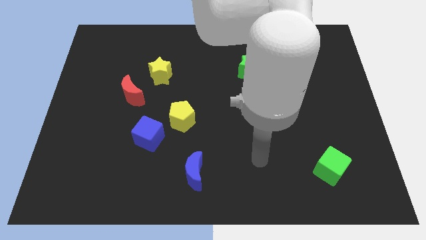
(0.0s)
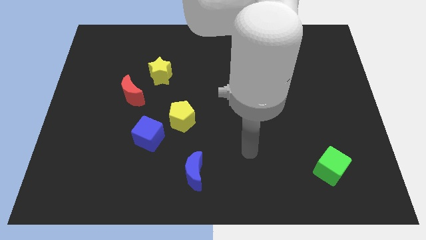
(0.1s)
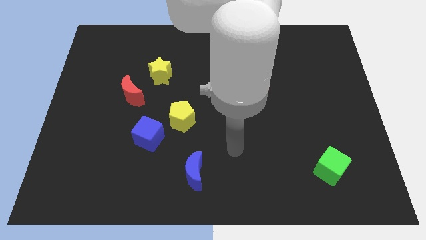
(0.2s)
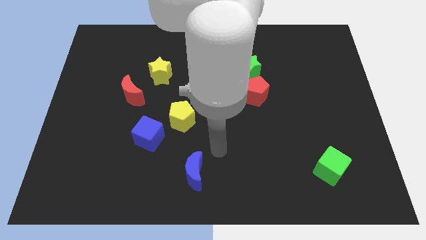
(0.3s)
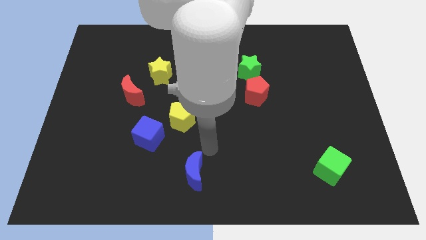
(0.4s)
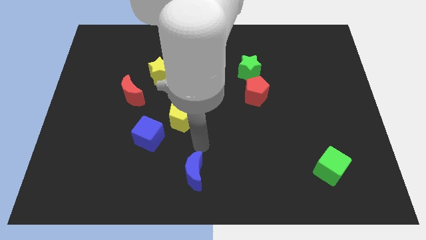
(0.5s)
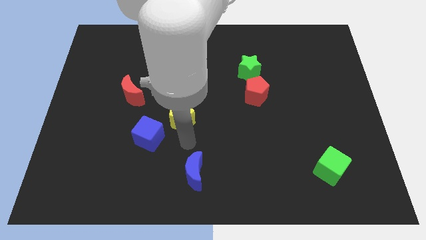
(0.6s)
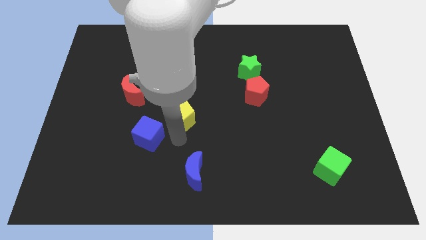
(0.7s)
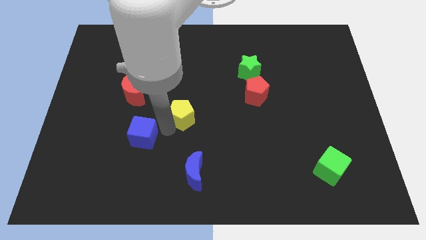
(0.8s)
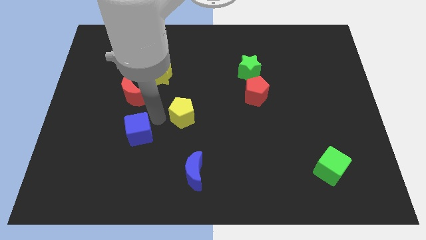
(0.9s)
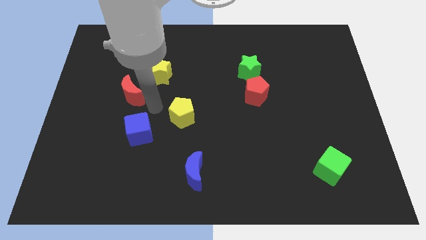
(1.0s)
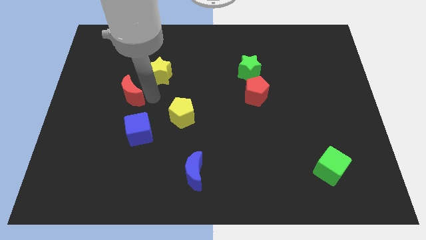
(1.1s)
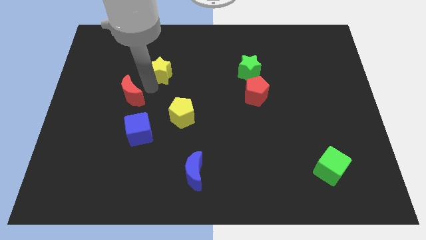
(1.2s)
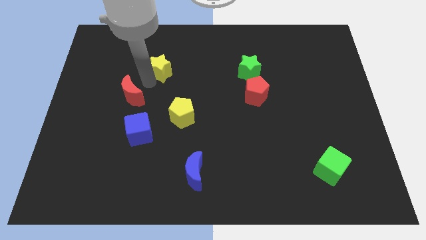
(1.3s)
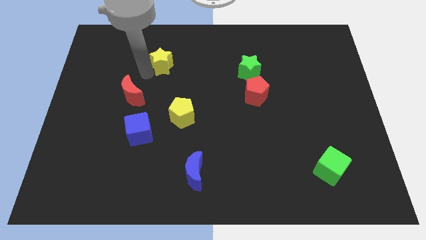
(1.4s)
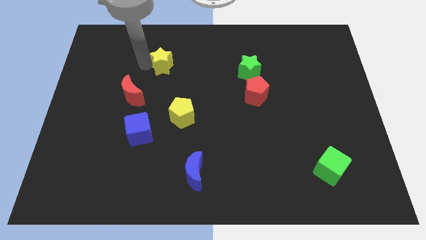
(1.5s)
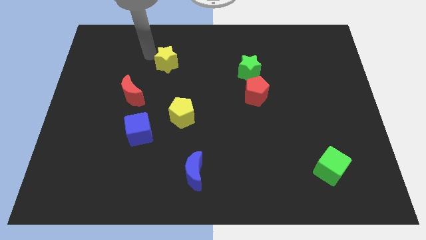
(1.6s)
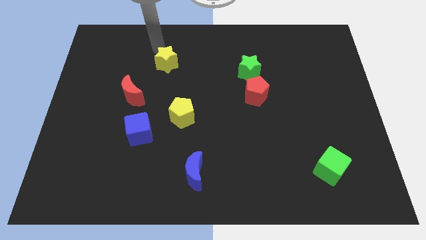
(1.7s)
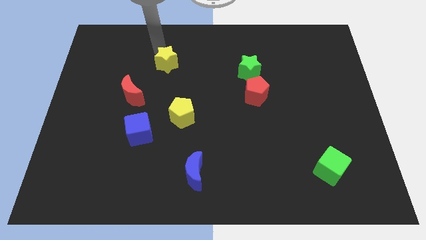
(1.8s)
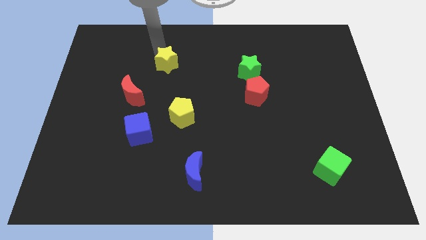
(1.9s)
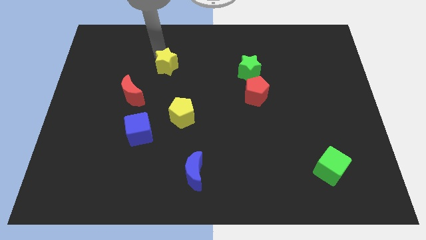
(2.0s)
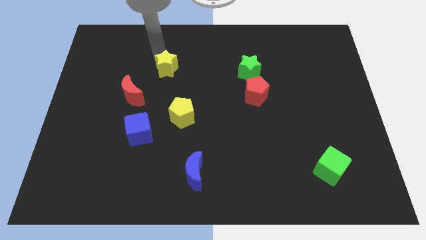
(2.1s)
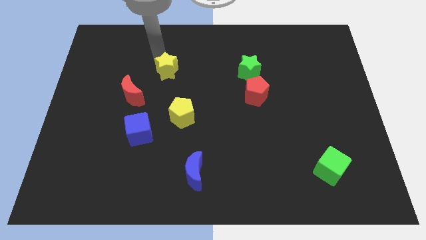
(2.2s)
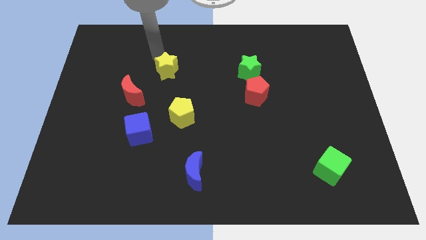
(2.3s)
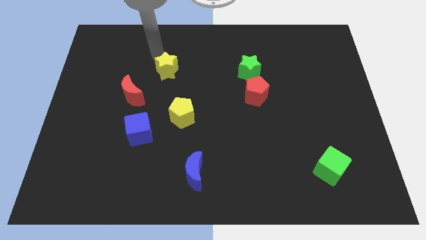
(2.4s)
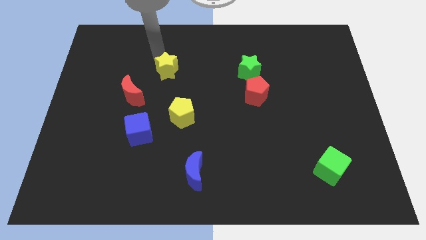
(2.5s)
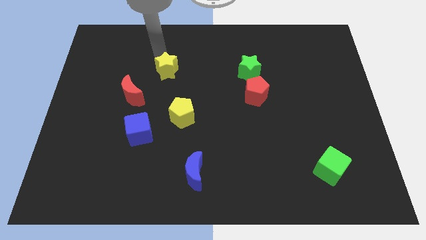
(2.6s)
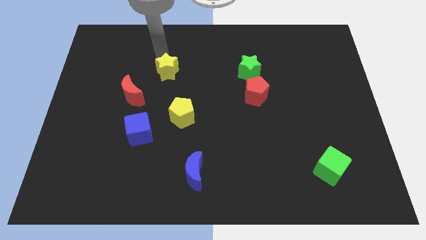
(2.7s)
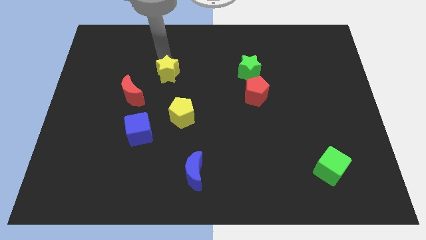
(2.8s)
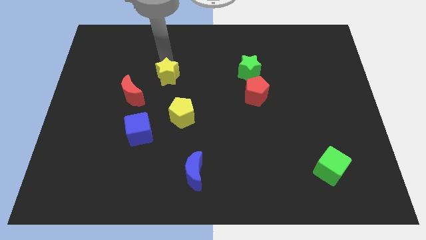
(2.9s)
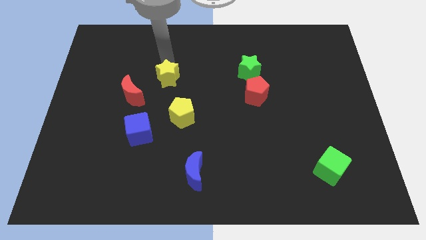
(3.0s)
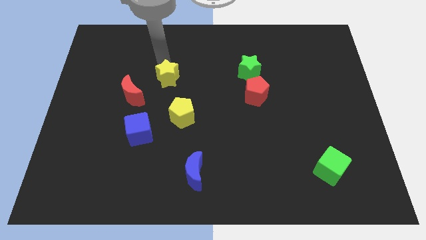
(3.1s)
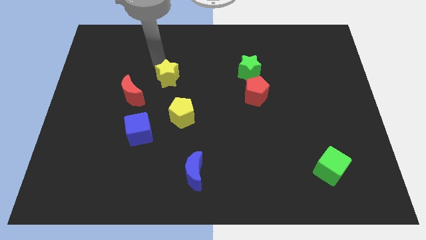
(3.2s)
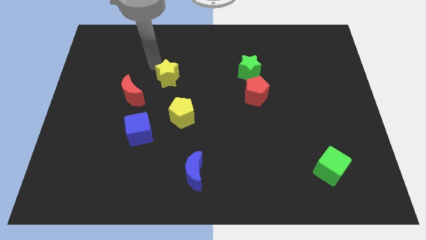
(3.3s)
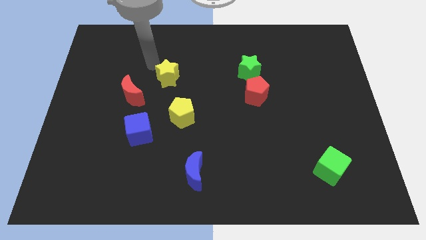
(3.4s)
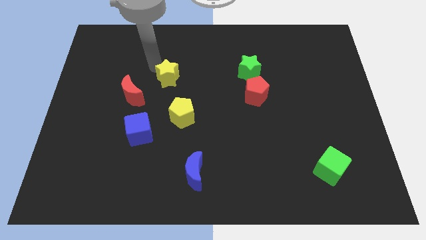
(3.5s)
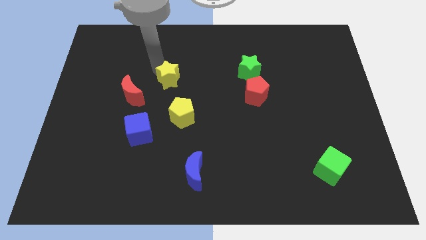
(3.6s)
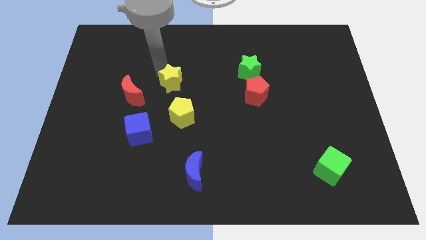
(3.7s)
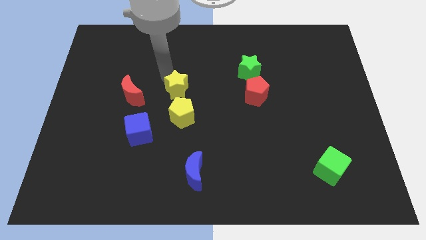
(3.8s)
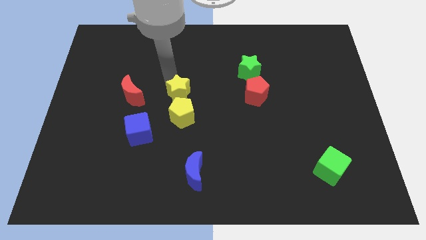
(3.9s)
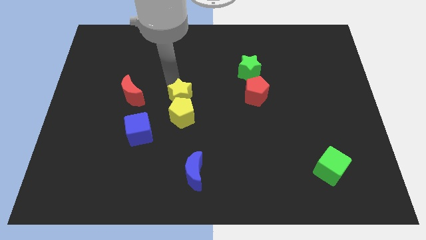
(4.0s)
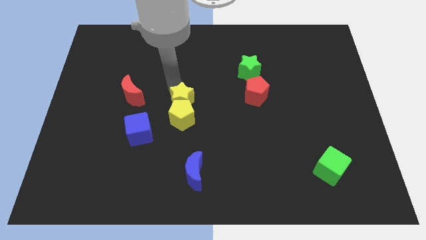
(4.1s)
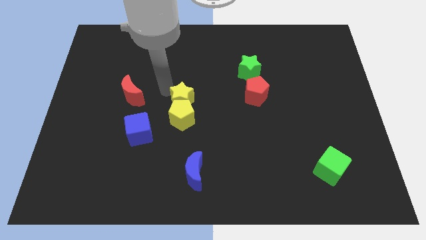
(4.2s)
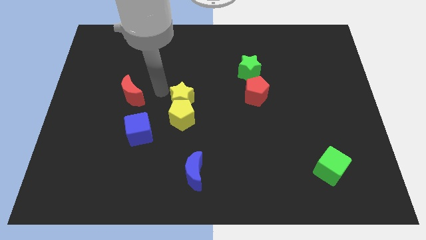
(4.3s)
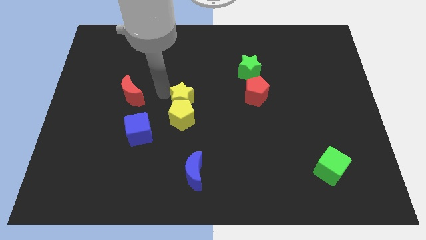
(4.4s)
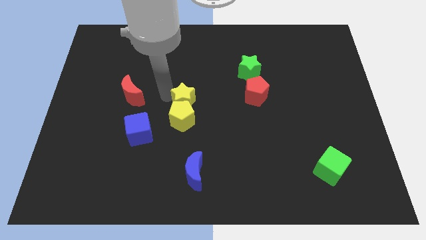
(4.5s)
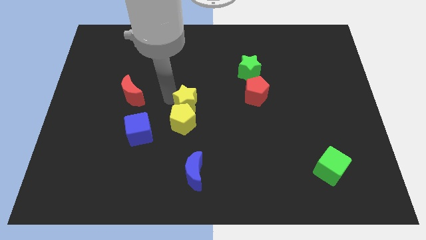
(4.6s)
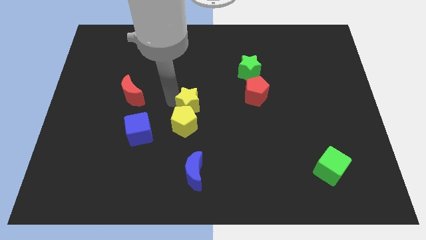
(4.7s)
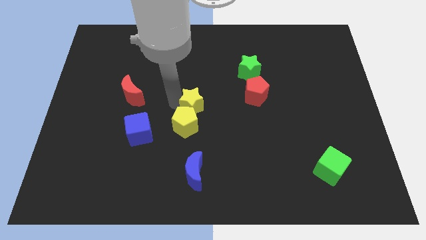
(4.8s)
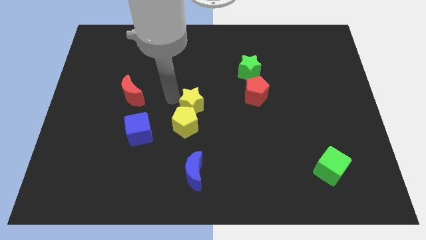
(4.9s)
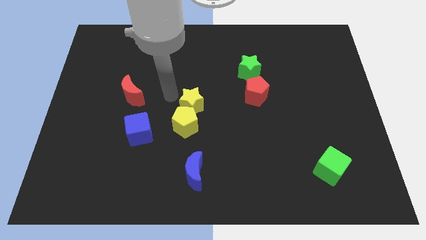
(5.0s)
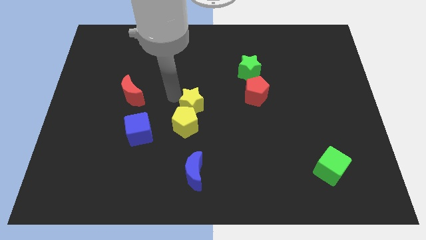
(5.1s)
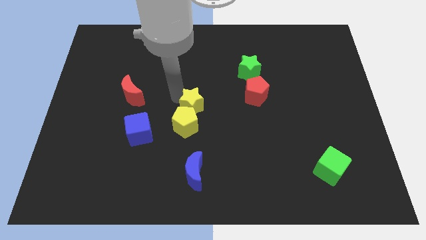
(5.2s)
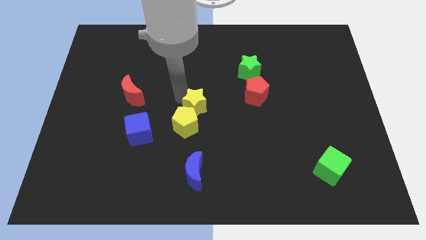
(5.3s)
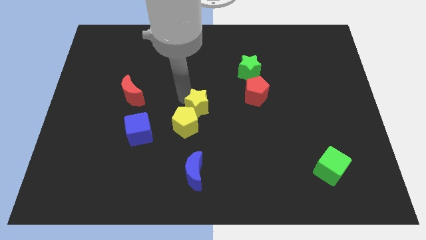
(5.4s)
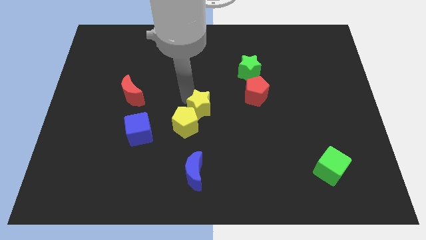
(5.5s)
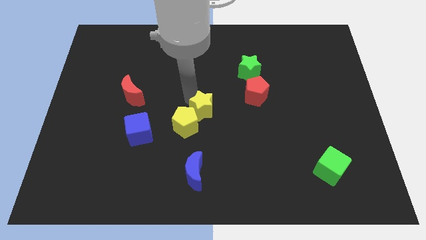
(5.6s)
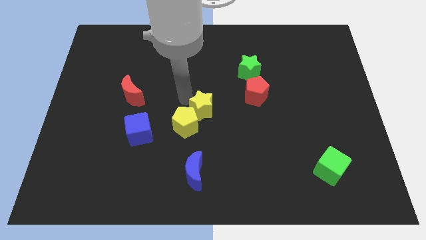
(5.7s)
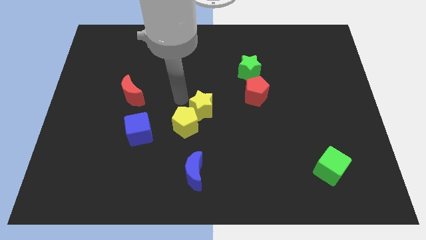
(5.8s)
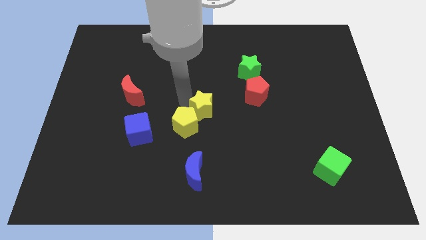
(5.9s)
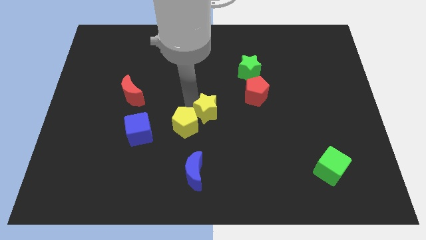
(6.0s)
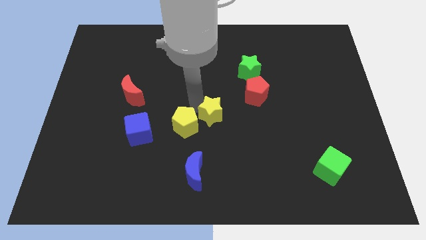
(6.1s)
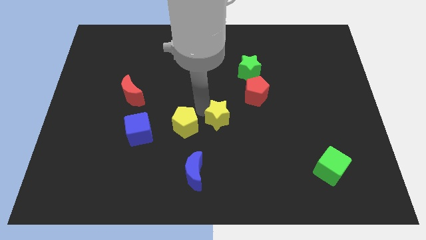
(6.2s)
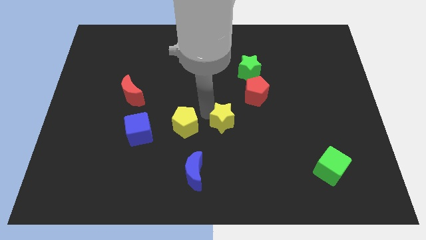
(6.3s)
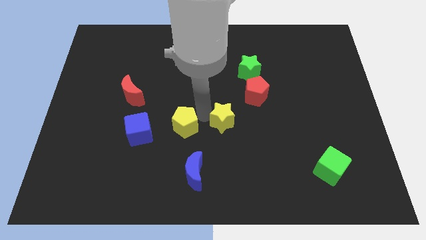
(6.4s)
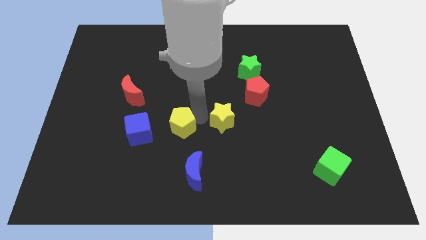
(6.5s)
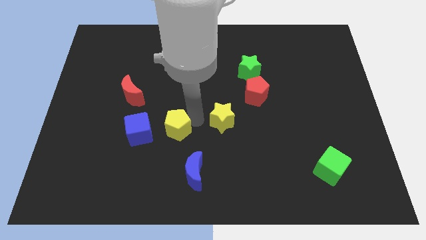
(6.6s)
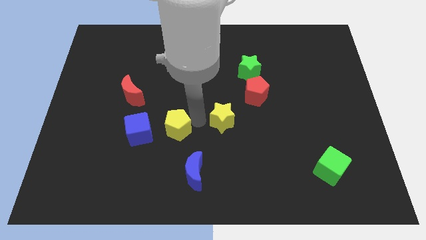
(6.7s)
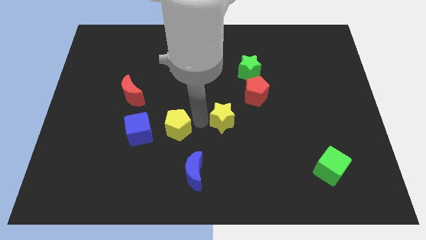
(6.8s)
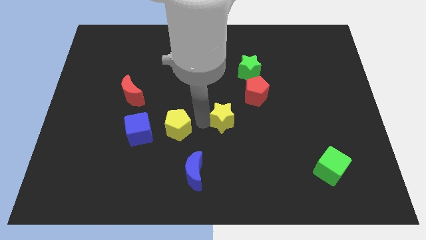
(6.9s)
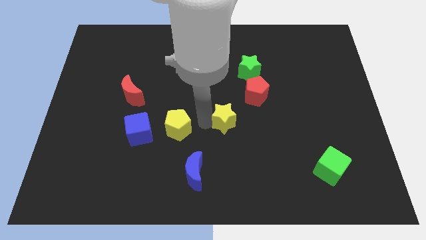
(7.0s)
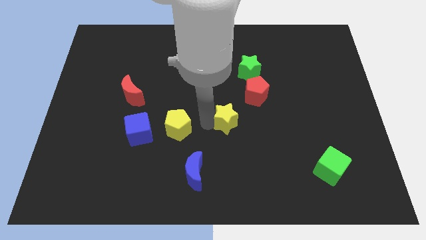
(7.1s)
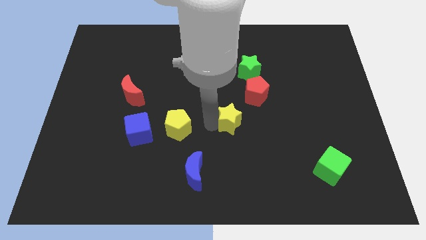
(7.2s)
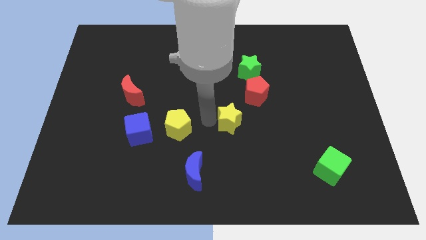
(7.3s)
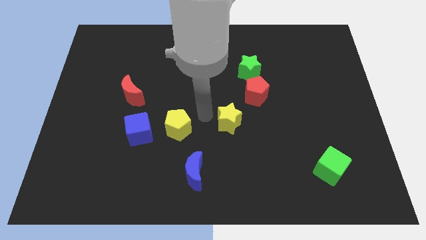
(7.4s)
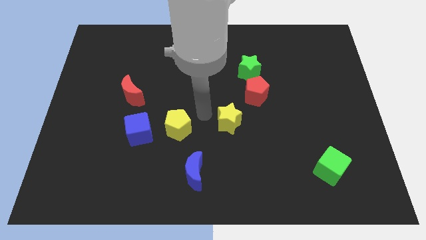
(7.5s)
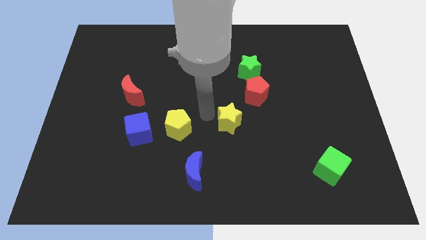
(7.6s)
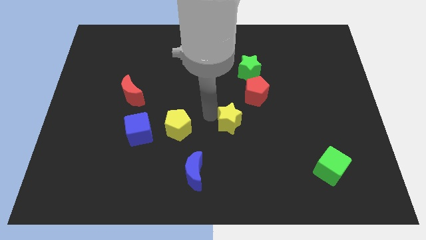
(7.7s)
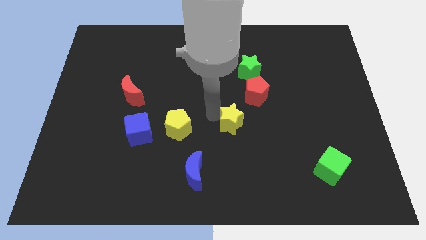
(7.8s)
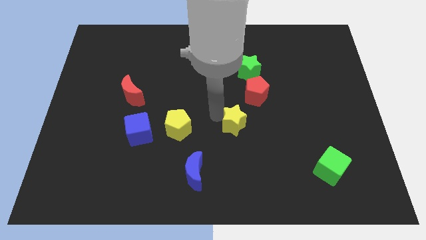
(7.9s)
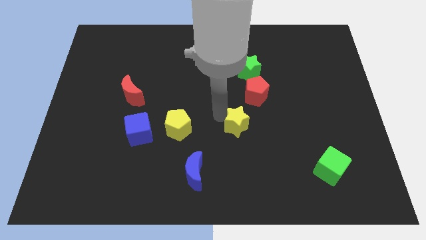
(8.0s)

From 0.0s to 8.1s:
put the yellow star below the red pentagon

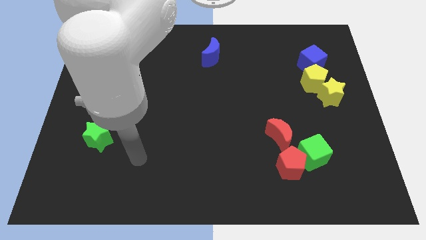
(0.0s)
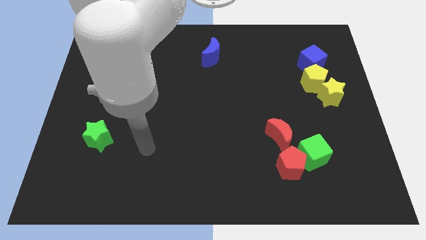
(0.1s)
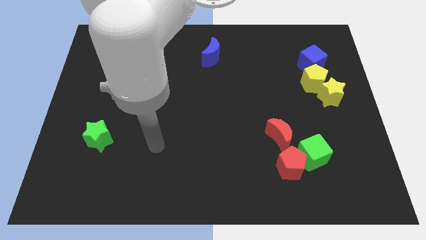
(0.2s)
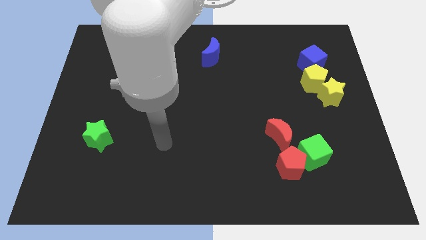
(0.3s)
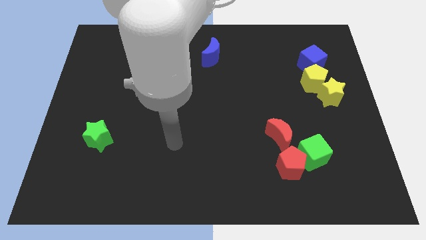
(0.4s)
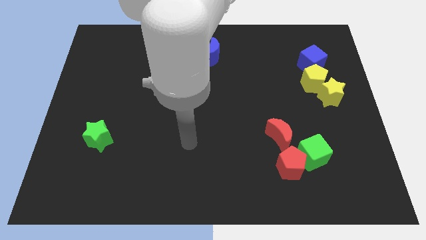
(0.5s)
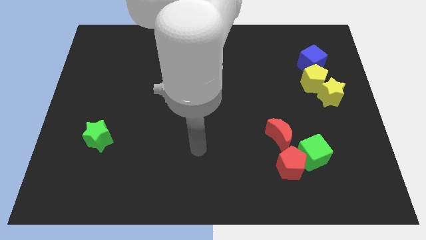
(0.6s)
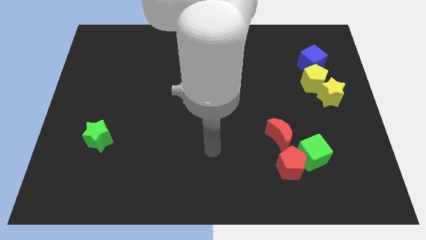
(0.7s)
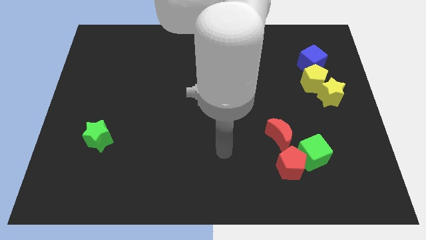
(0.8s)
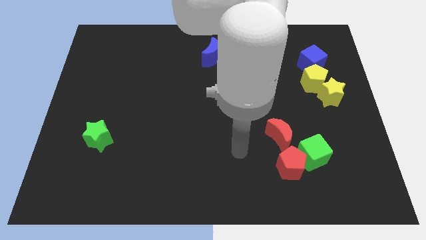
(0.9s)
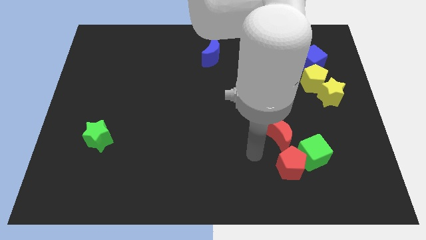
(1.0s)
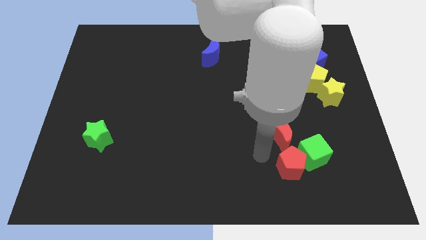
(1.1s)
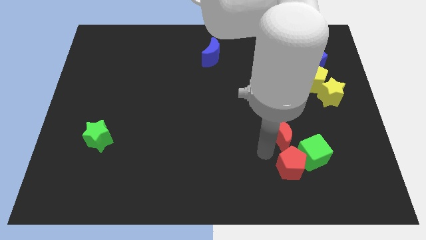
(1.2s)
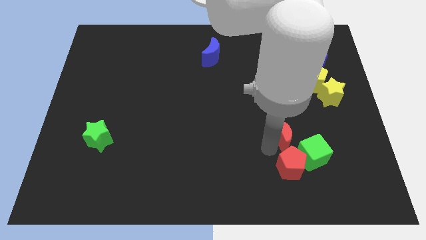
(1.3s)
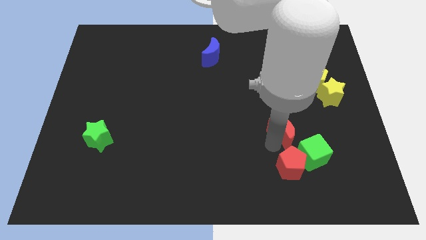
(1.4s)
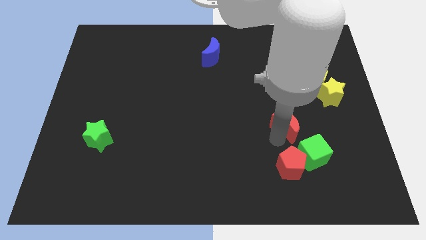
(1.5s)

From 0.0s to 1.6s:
put the red moon to the top of the green cube
